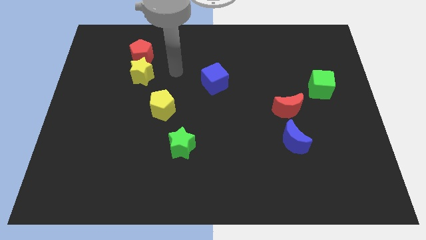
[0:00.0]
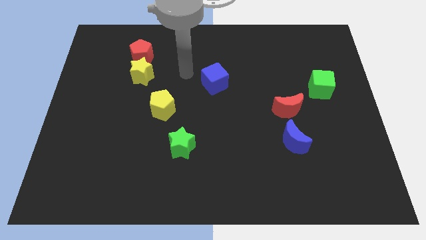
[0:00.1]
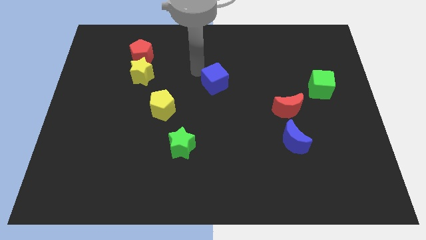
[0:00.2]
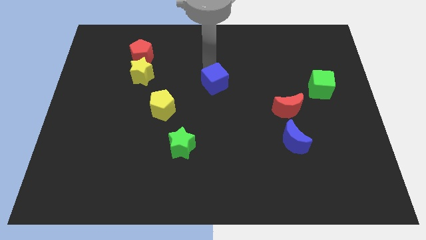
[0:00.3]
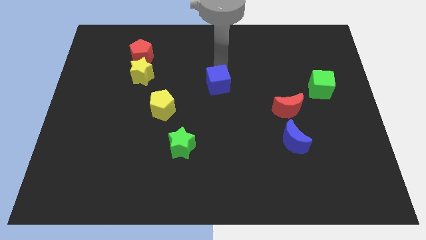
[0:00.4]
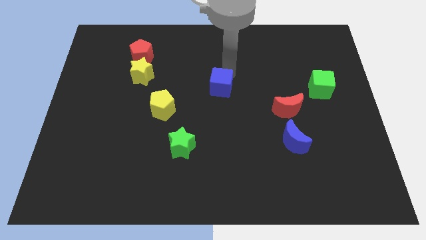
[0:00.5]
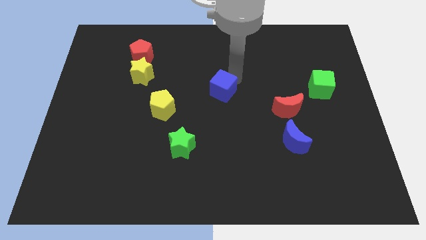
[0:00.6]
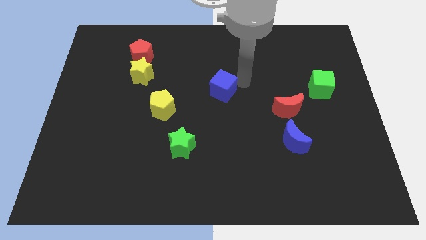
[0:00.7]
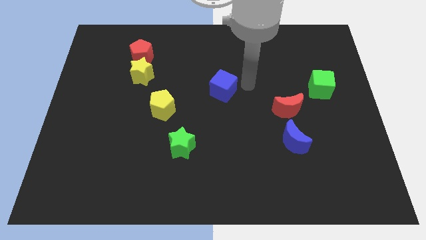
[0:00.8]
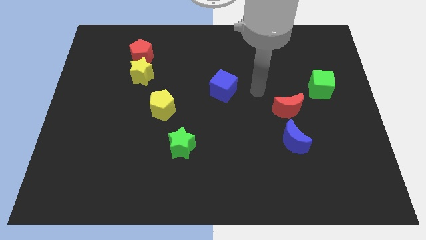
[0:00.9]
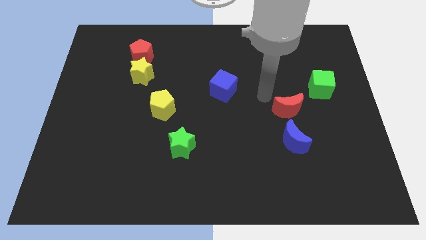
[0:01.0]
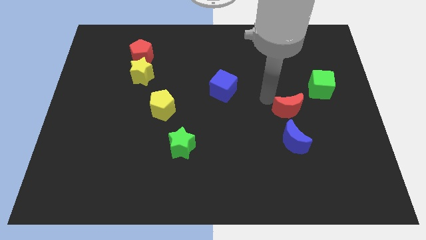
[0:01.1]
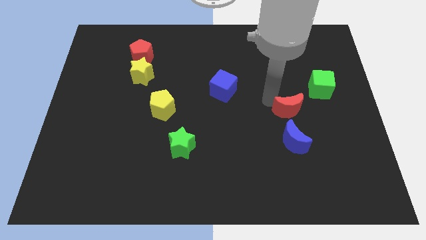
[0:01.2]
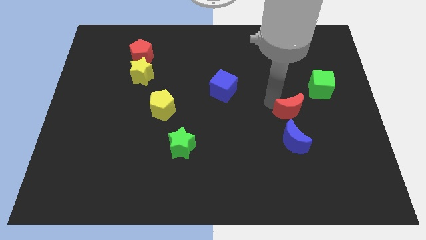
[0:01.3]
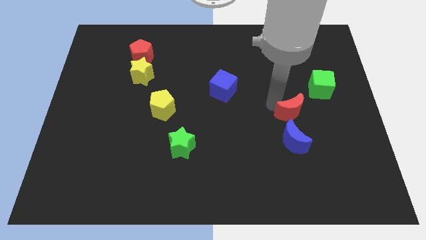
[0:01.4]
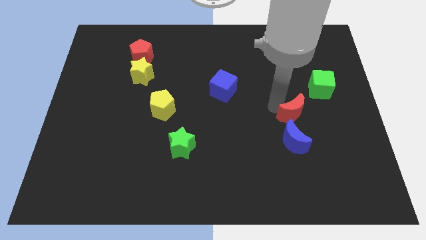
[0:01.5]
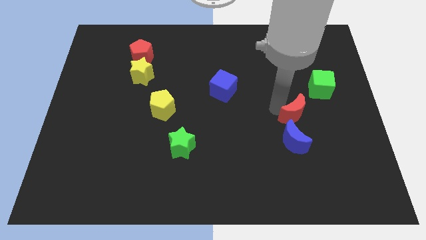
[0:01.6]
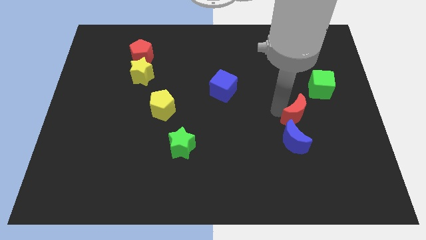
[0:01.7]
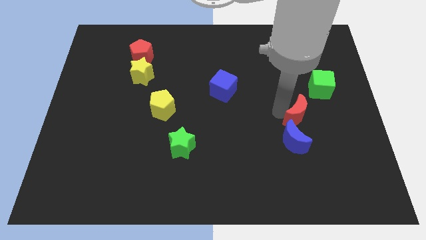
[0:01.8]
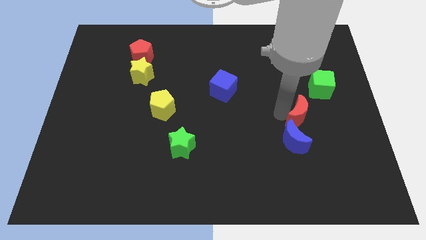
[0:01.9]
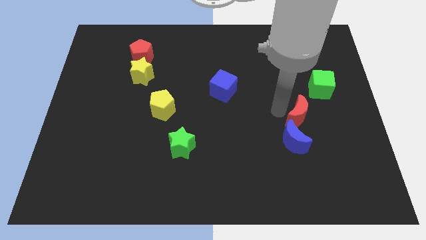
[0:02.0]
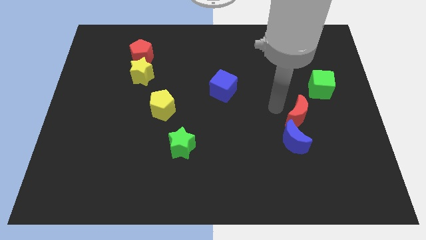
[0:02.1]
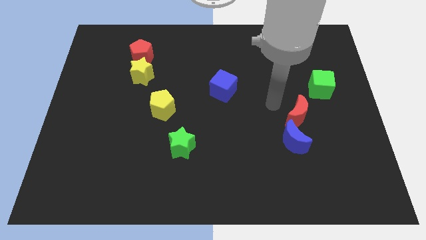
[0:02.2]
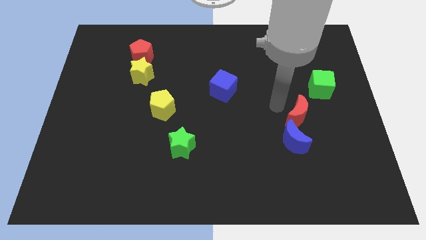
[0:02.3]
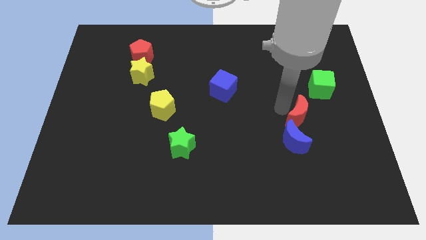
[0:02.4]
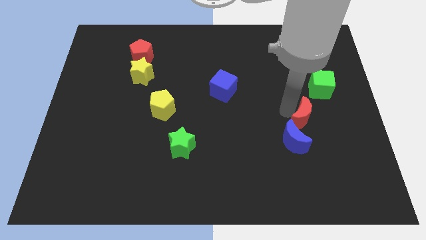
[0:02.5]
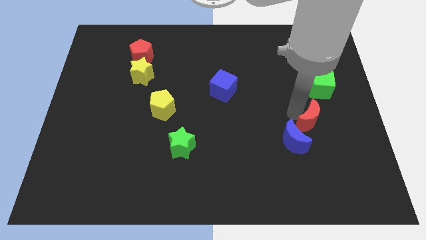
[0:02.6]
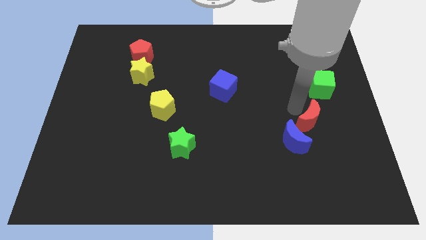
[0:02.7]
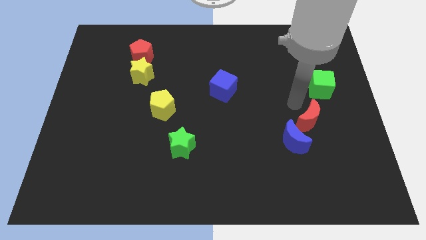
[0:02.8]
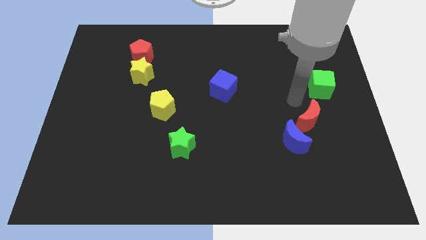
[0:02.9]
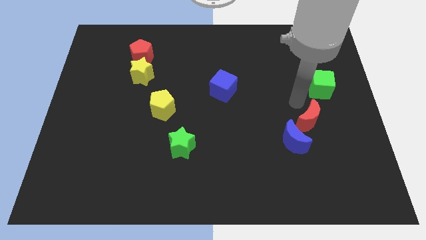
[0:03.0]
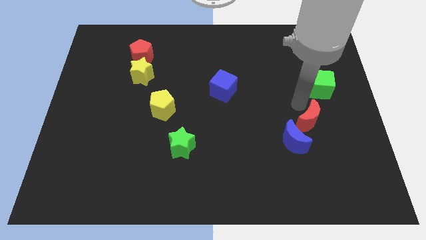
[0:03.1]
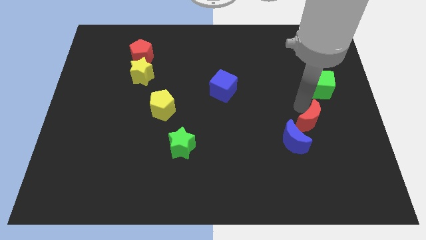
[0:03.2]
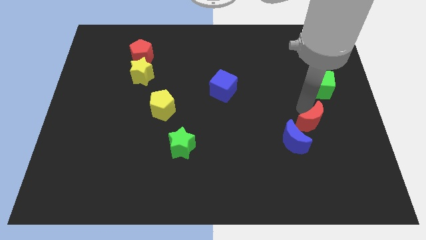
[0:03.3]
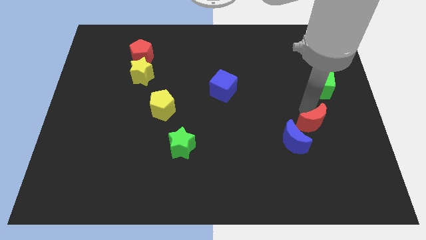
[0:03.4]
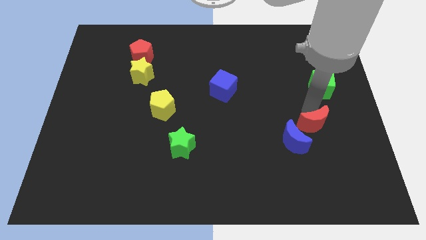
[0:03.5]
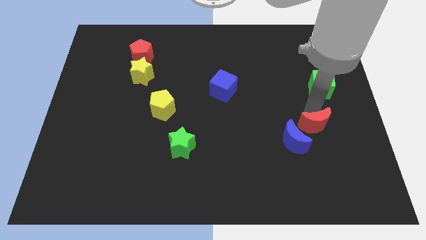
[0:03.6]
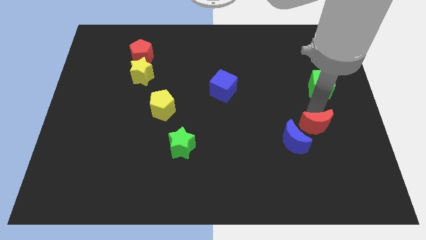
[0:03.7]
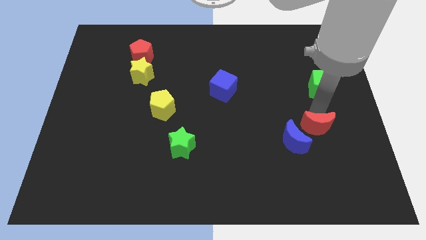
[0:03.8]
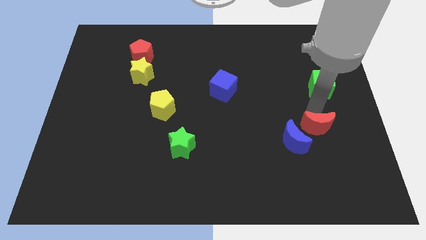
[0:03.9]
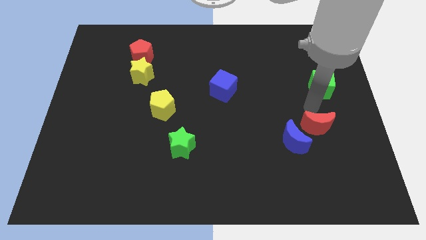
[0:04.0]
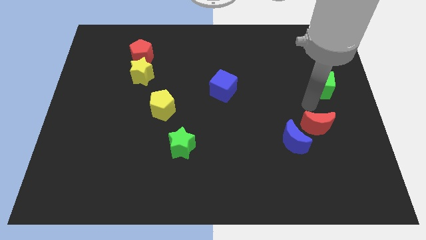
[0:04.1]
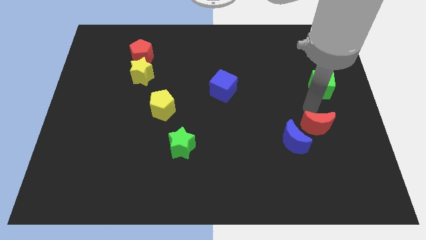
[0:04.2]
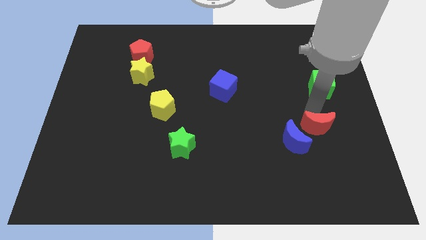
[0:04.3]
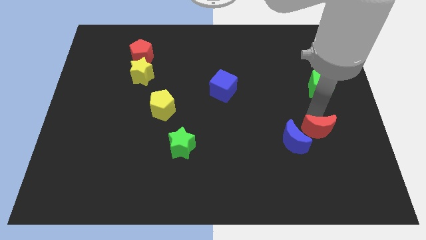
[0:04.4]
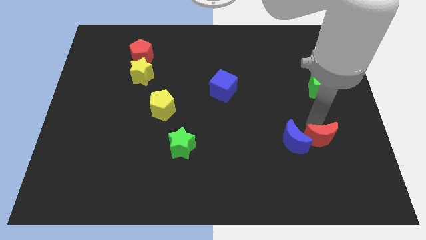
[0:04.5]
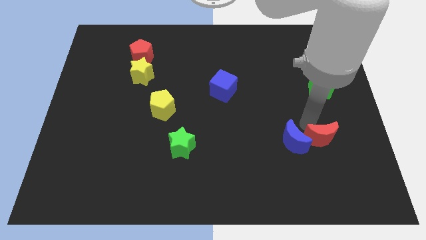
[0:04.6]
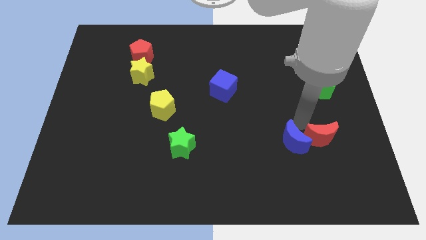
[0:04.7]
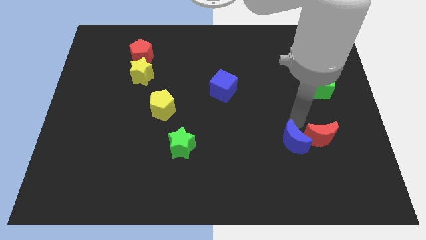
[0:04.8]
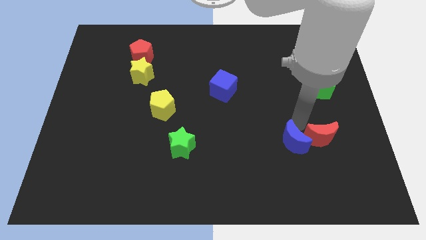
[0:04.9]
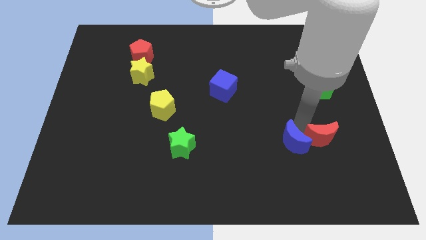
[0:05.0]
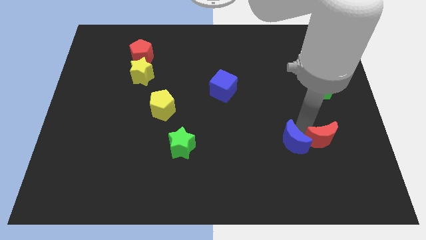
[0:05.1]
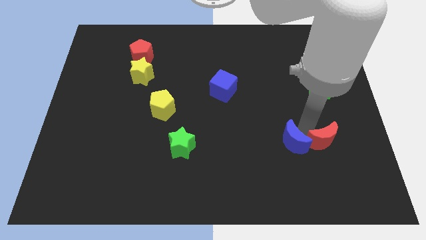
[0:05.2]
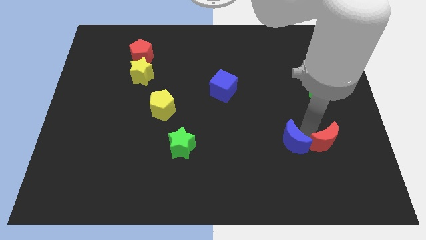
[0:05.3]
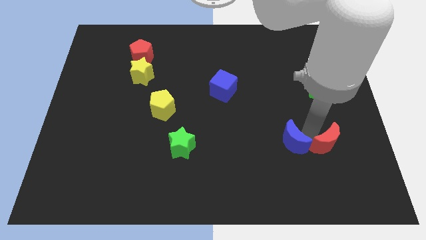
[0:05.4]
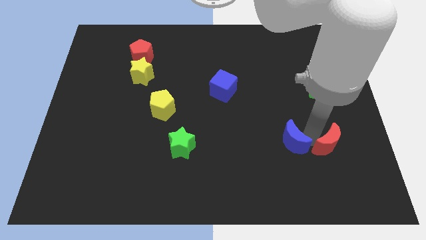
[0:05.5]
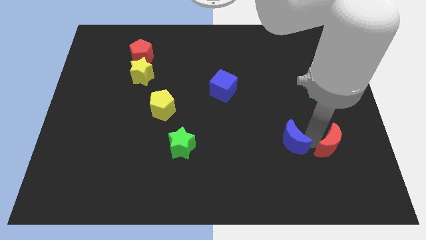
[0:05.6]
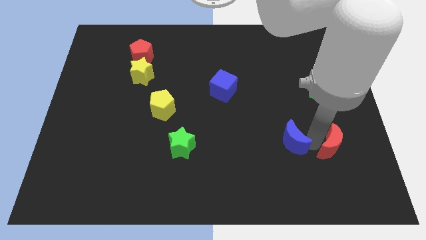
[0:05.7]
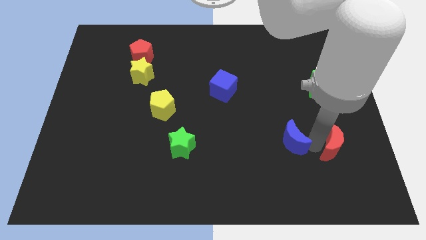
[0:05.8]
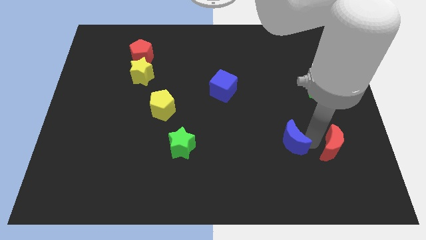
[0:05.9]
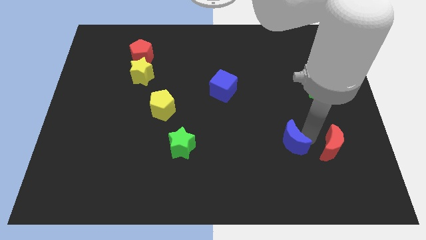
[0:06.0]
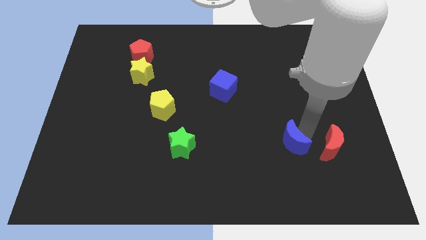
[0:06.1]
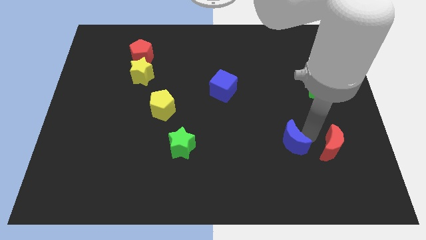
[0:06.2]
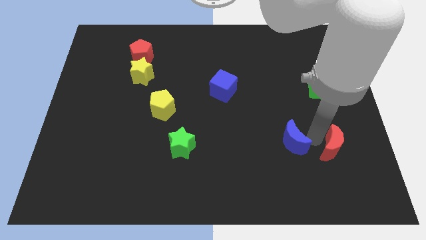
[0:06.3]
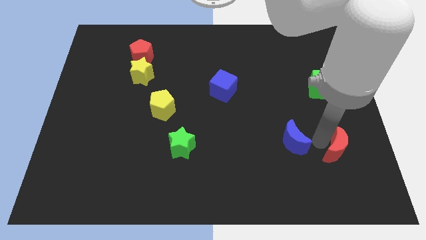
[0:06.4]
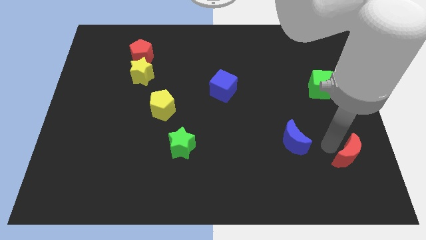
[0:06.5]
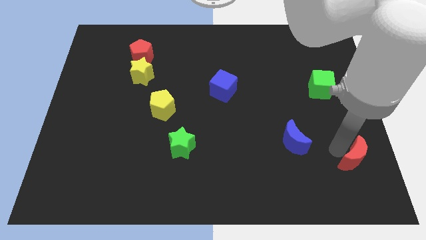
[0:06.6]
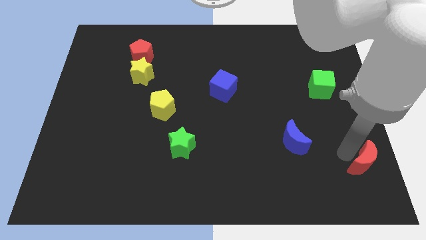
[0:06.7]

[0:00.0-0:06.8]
move the red moon to the bottom right corner

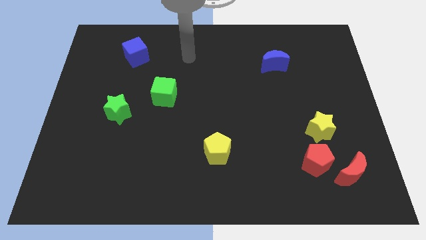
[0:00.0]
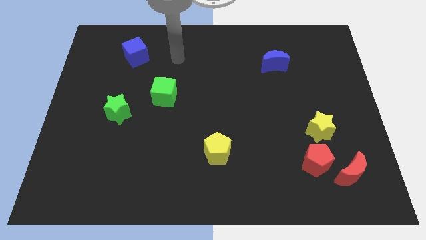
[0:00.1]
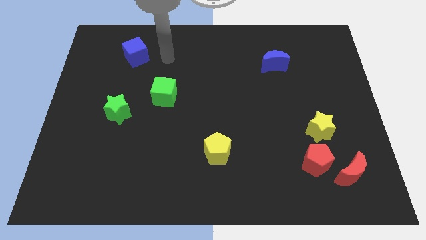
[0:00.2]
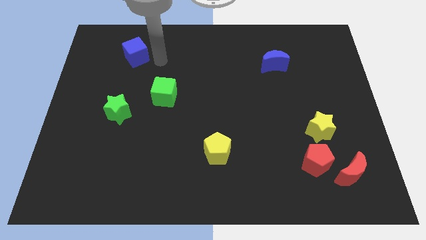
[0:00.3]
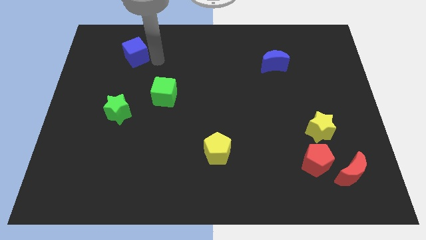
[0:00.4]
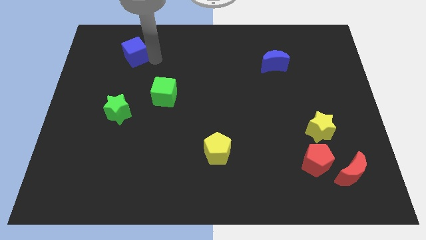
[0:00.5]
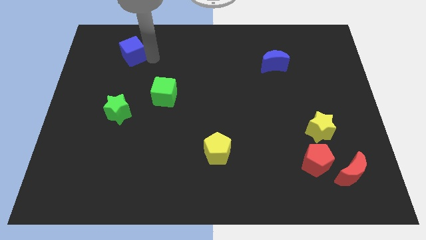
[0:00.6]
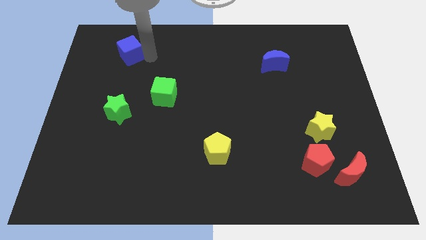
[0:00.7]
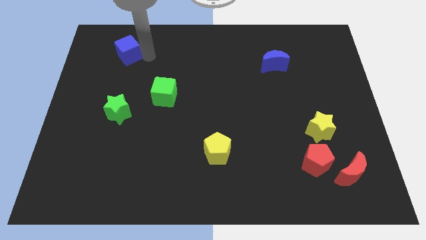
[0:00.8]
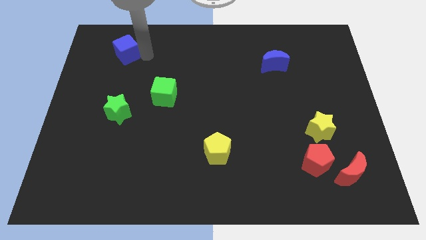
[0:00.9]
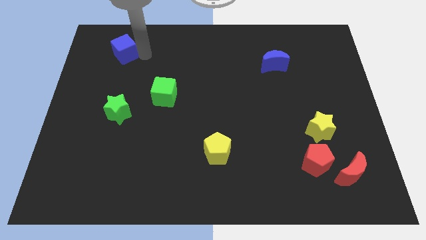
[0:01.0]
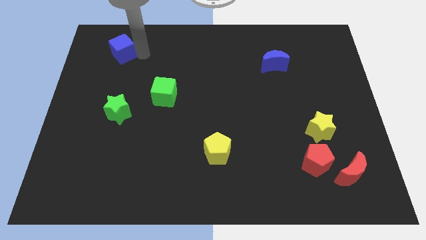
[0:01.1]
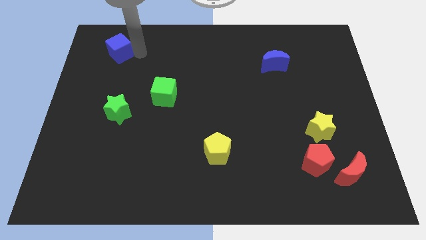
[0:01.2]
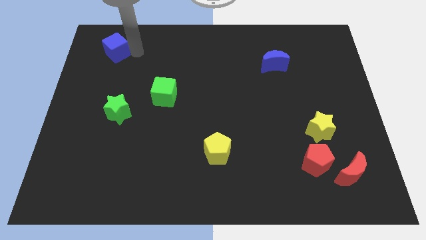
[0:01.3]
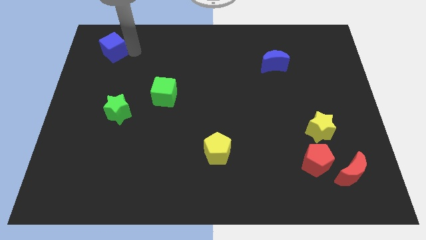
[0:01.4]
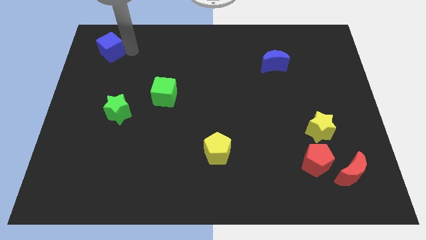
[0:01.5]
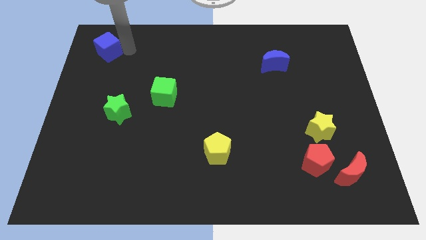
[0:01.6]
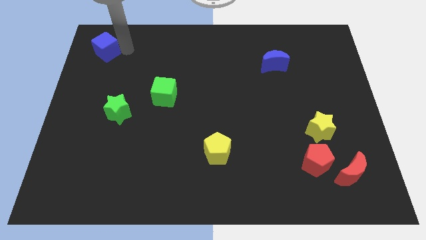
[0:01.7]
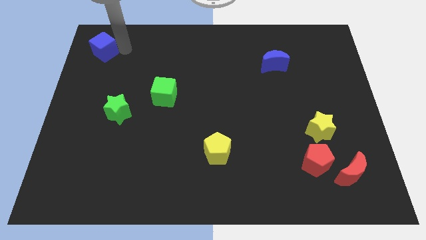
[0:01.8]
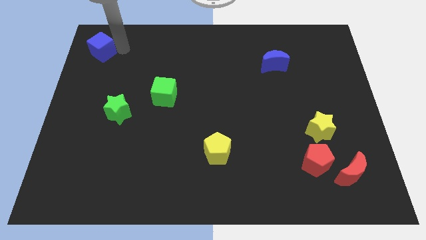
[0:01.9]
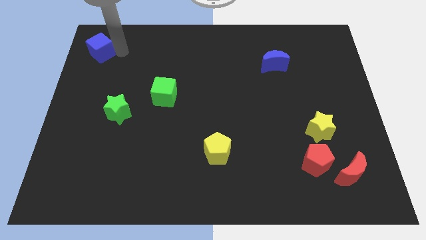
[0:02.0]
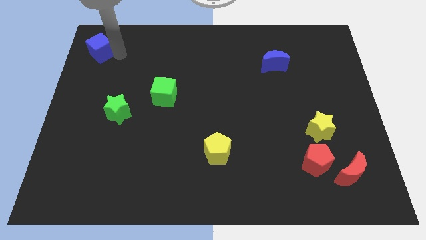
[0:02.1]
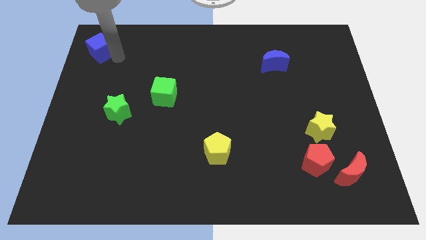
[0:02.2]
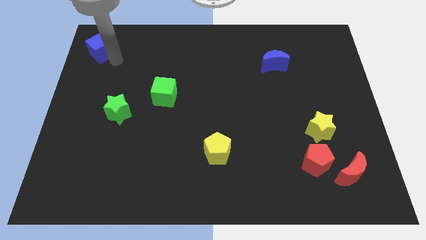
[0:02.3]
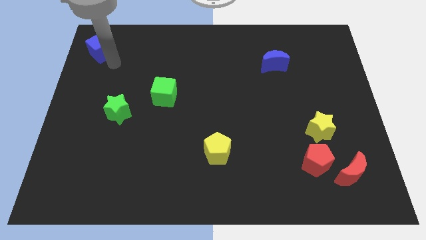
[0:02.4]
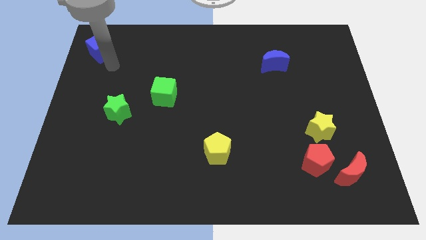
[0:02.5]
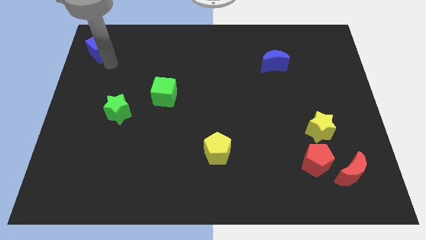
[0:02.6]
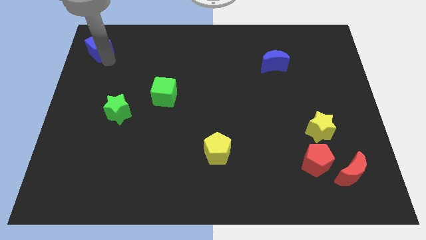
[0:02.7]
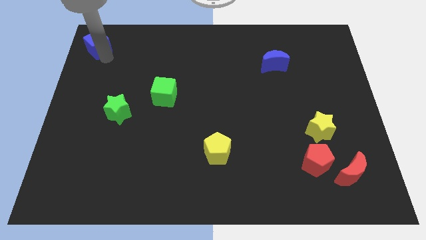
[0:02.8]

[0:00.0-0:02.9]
put the blue cube to the upper left corner
